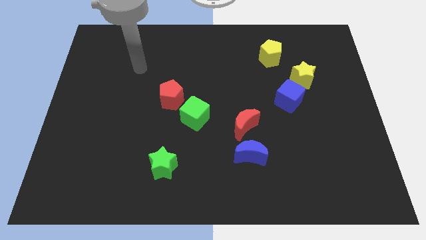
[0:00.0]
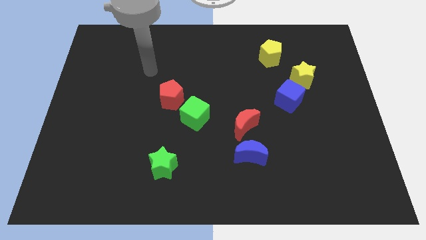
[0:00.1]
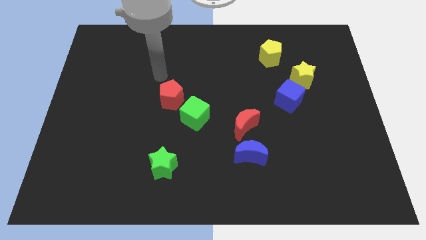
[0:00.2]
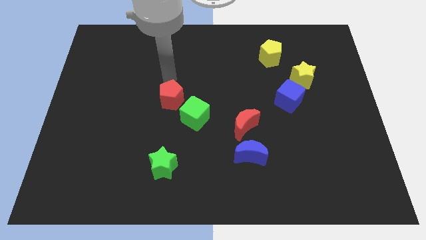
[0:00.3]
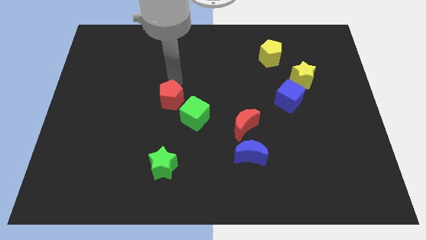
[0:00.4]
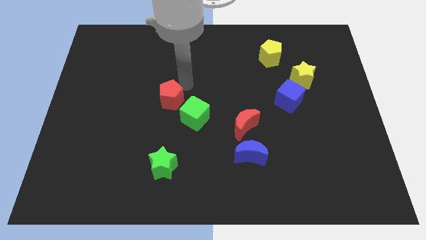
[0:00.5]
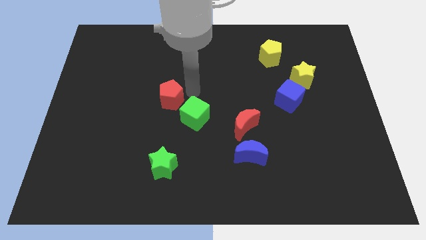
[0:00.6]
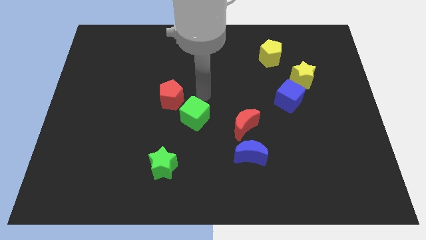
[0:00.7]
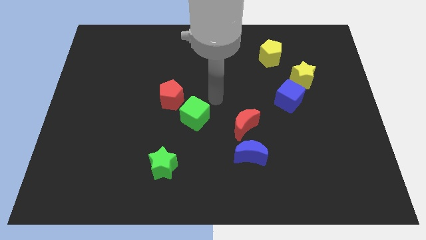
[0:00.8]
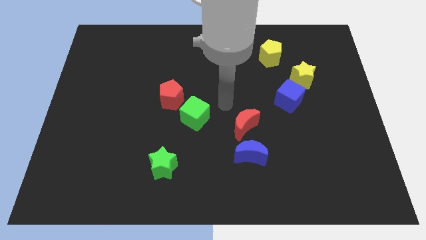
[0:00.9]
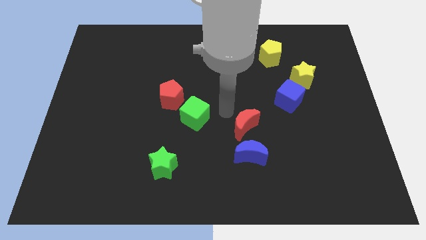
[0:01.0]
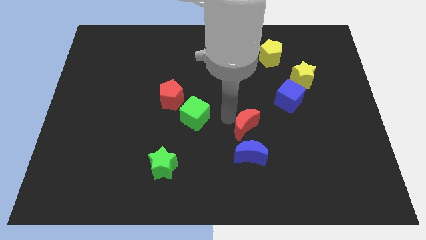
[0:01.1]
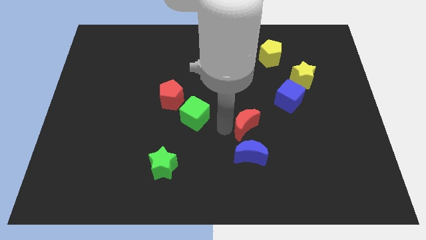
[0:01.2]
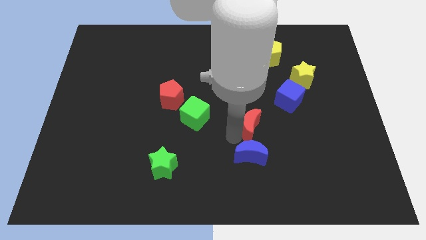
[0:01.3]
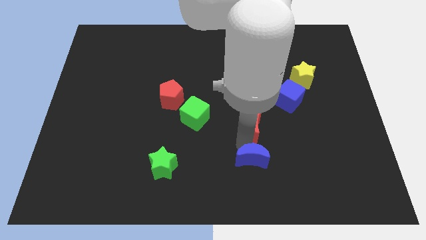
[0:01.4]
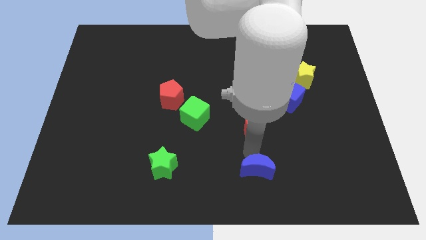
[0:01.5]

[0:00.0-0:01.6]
move the red moon away from the blue moon

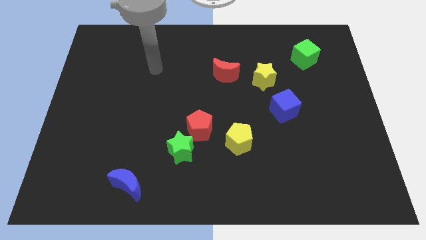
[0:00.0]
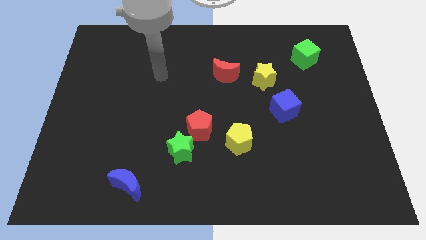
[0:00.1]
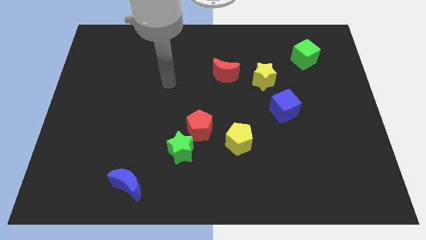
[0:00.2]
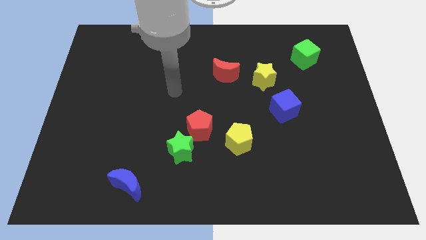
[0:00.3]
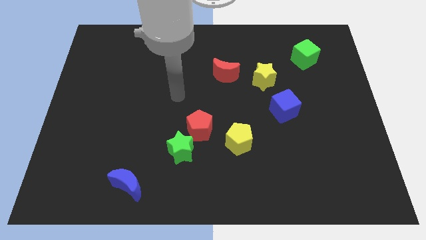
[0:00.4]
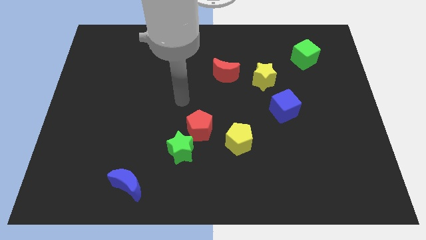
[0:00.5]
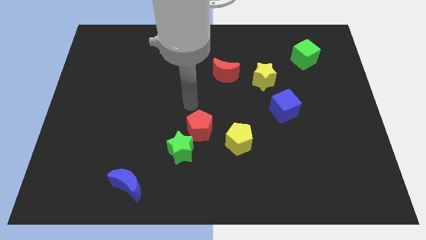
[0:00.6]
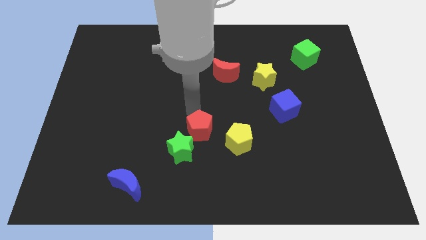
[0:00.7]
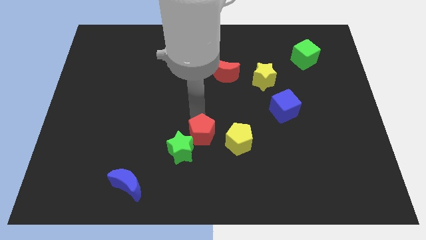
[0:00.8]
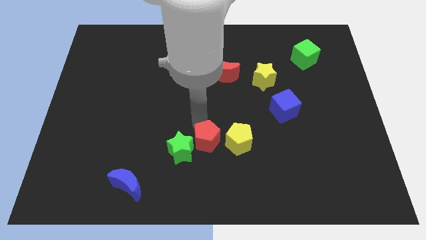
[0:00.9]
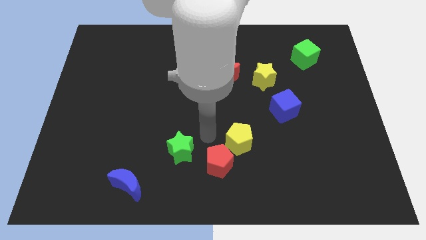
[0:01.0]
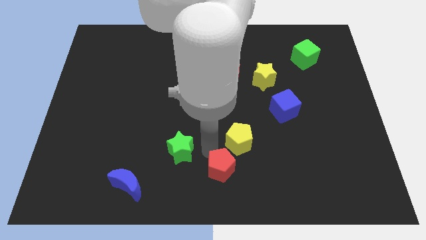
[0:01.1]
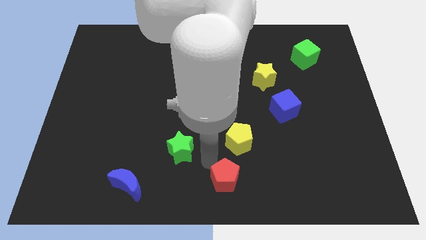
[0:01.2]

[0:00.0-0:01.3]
pull the green star apart from the red pentagon

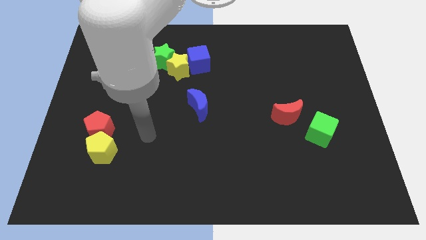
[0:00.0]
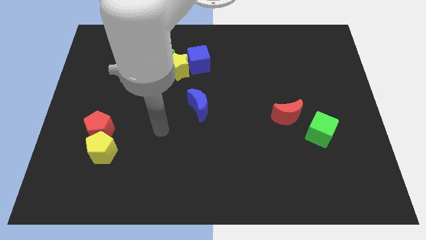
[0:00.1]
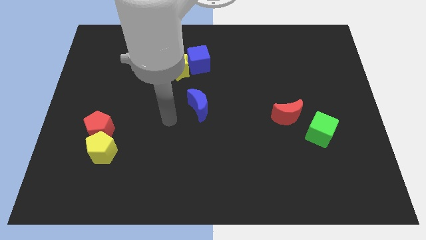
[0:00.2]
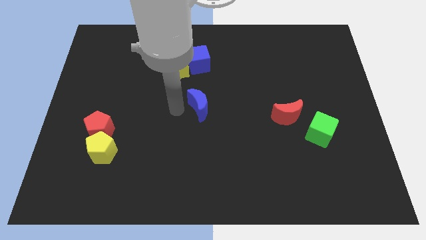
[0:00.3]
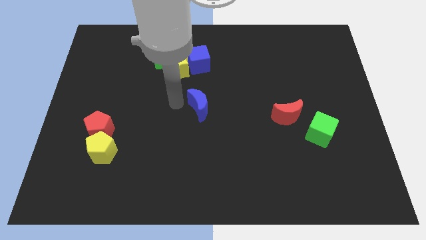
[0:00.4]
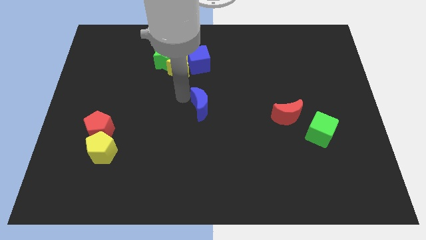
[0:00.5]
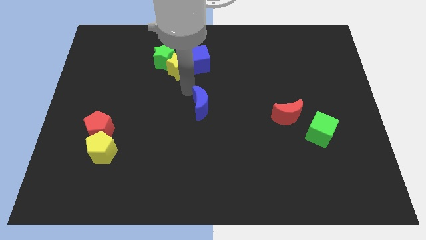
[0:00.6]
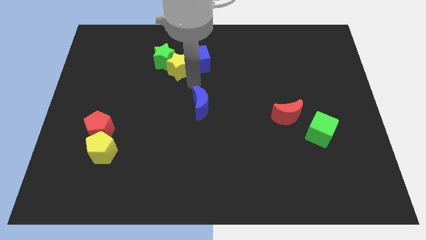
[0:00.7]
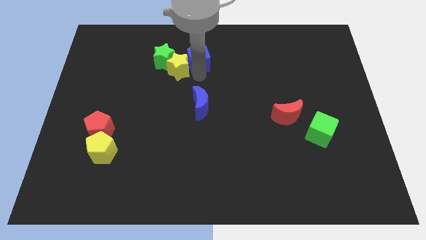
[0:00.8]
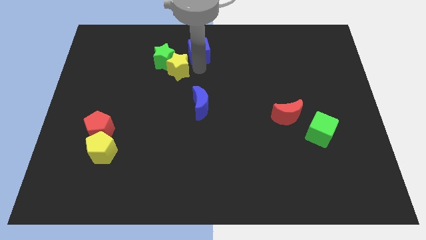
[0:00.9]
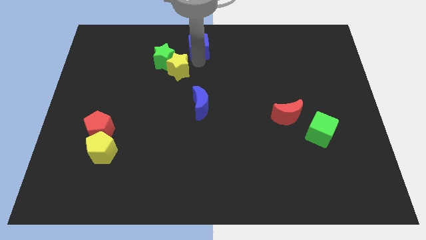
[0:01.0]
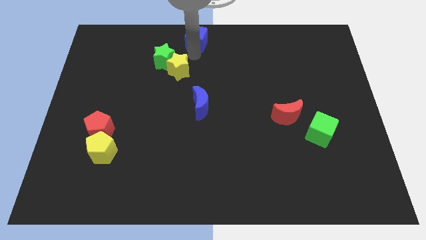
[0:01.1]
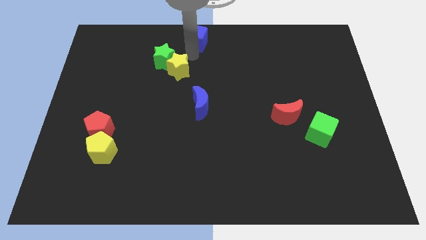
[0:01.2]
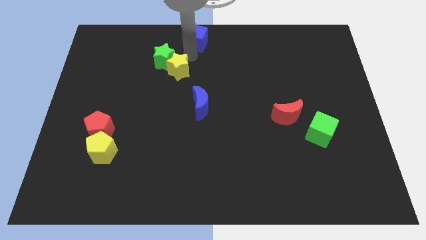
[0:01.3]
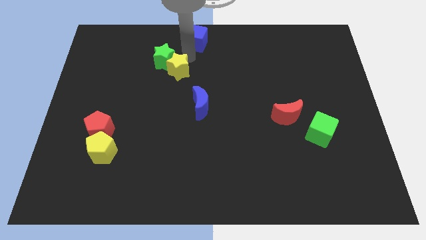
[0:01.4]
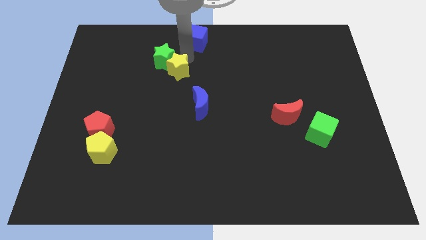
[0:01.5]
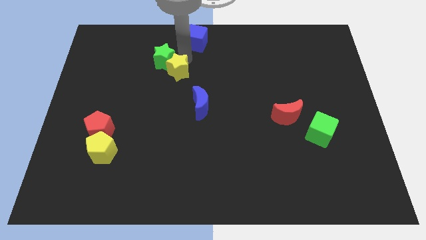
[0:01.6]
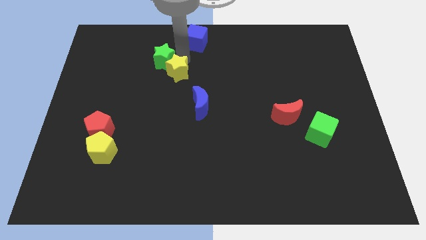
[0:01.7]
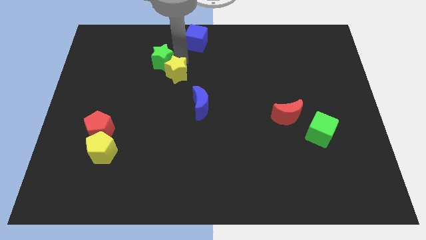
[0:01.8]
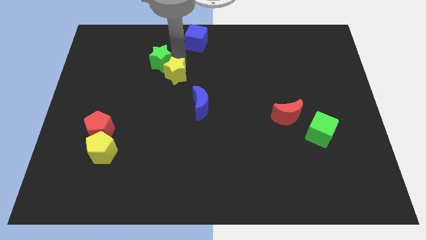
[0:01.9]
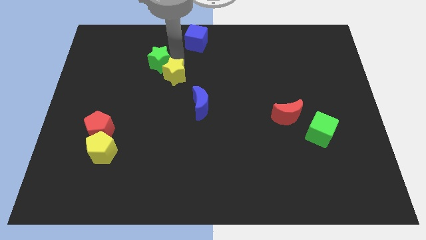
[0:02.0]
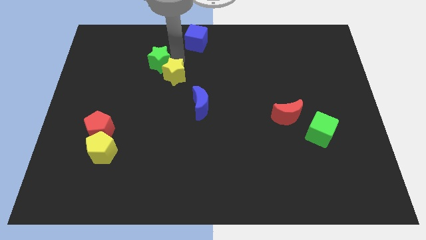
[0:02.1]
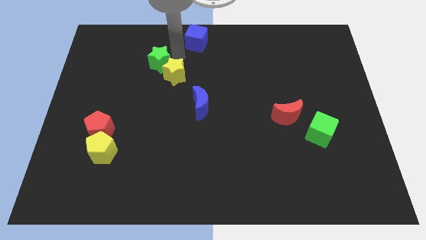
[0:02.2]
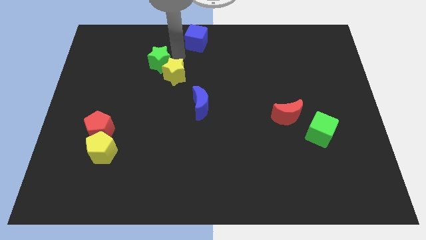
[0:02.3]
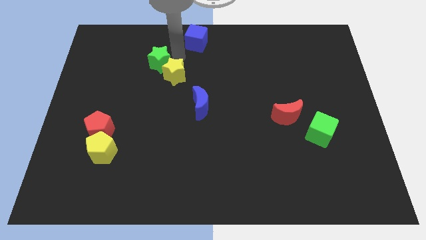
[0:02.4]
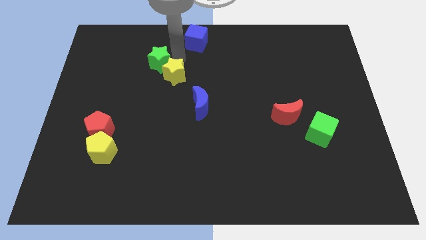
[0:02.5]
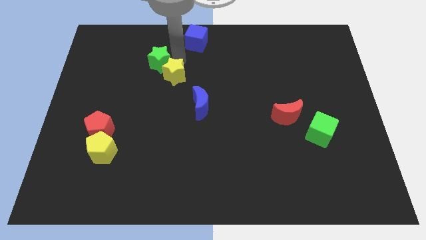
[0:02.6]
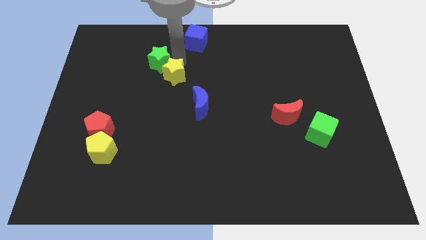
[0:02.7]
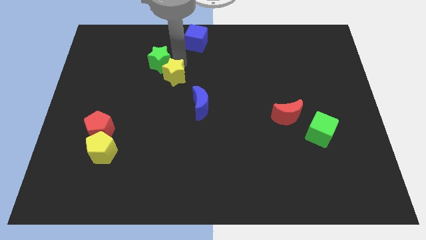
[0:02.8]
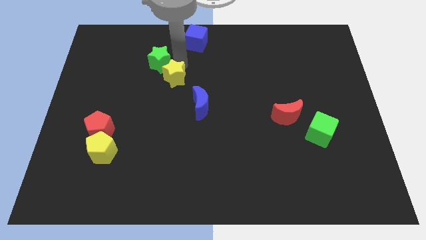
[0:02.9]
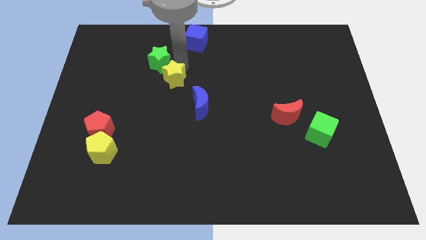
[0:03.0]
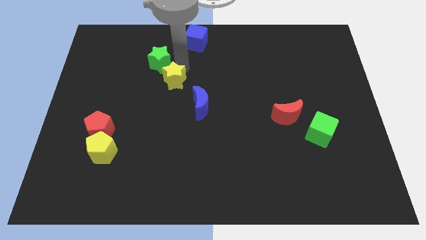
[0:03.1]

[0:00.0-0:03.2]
separate the yellow star from the green star and blue cube

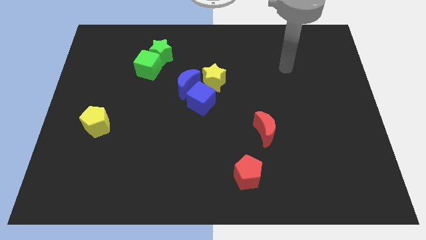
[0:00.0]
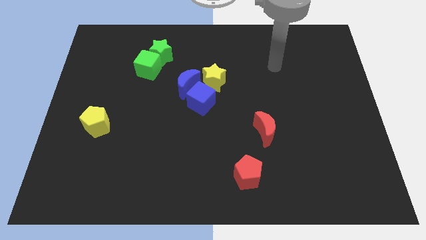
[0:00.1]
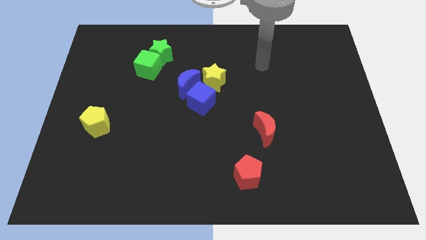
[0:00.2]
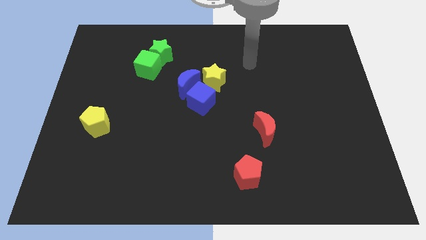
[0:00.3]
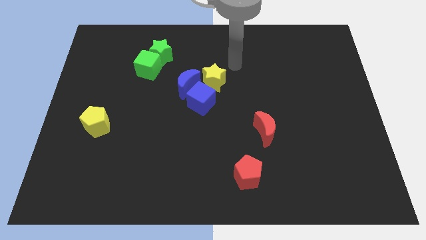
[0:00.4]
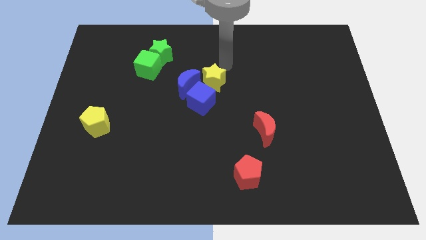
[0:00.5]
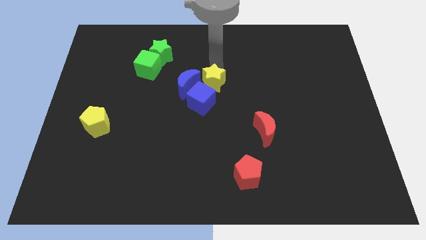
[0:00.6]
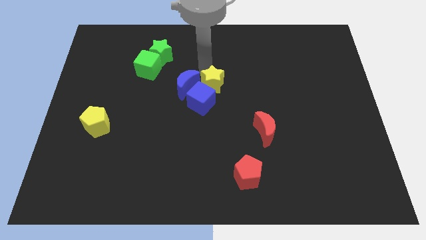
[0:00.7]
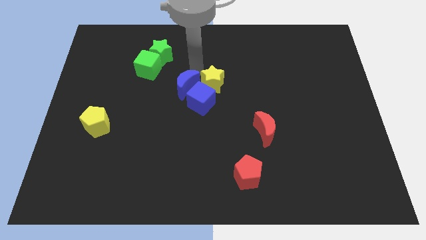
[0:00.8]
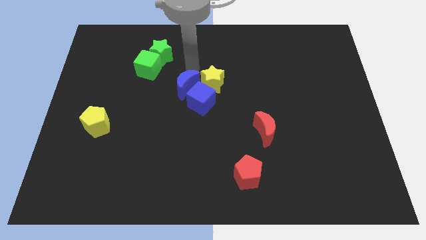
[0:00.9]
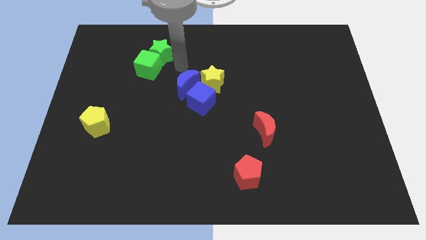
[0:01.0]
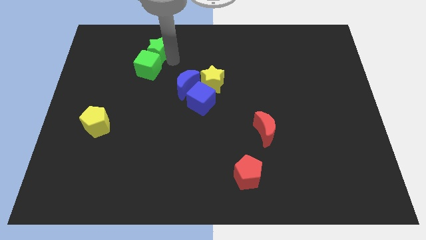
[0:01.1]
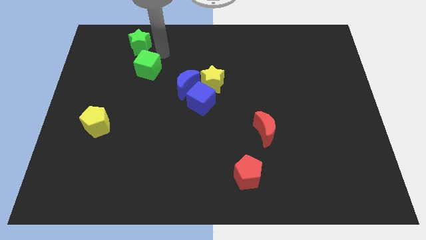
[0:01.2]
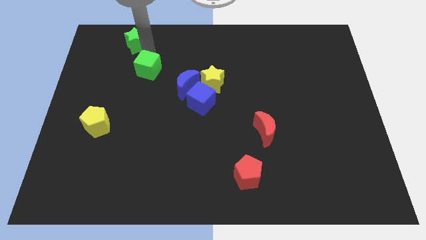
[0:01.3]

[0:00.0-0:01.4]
move the green cube away from the green star

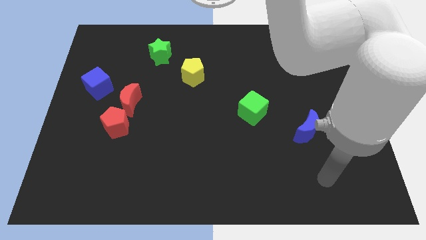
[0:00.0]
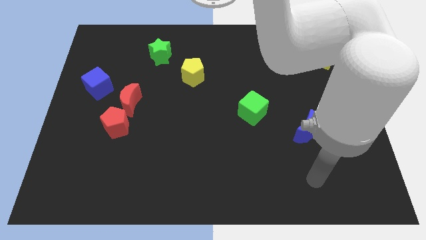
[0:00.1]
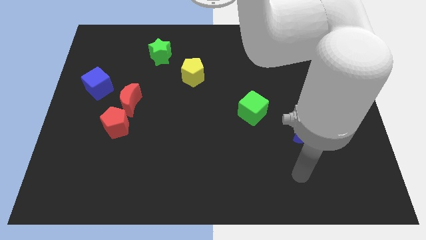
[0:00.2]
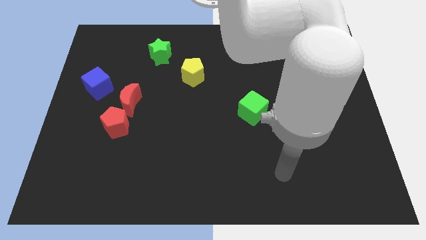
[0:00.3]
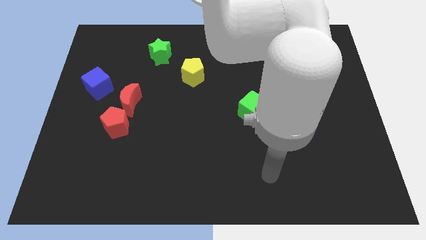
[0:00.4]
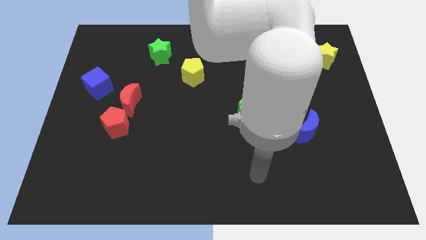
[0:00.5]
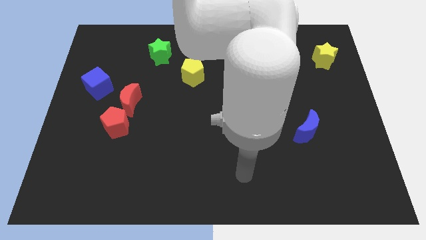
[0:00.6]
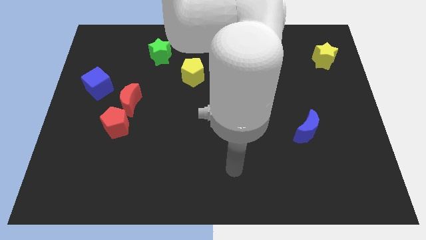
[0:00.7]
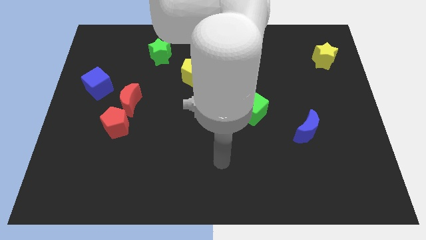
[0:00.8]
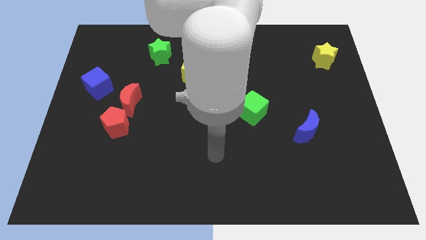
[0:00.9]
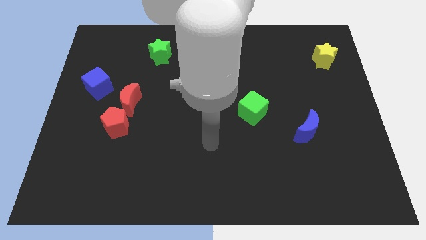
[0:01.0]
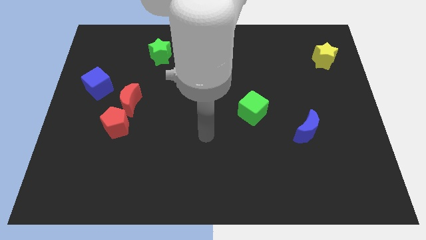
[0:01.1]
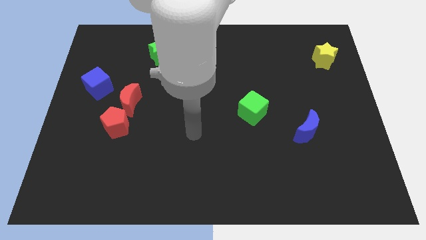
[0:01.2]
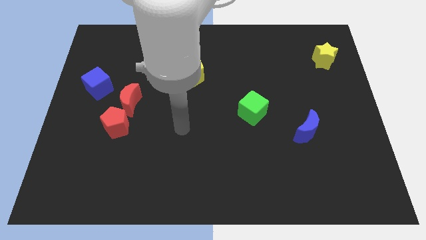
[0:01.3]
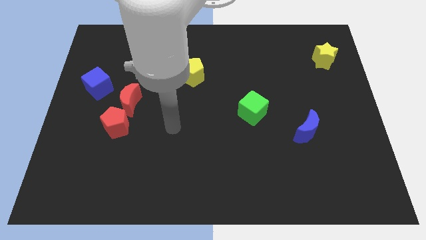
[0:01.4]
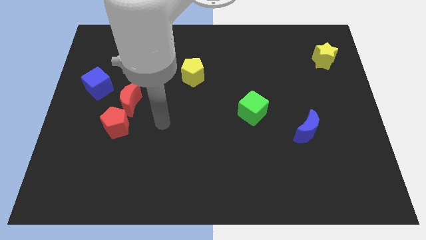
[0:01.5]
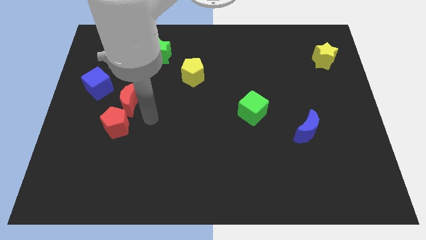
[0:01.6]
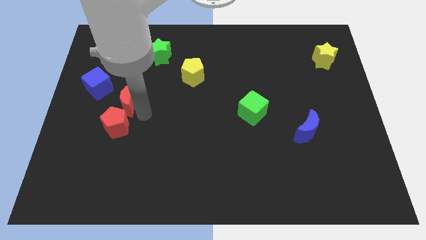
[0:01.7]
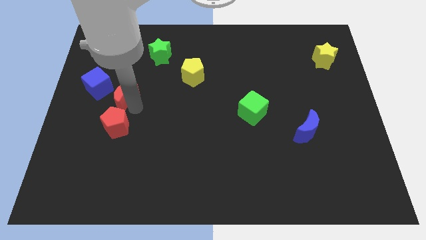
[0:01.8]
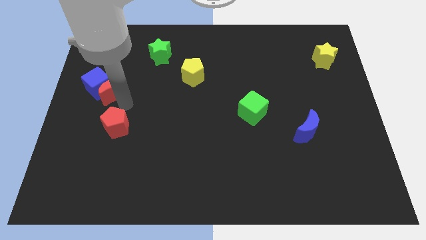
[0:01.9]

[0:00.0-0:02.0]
move the red pentagon away from the red moon
